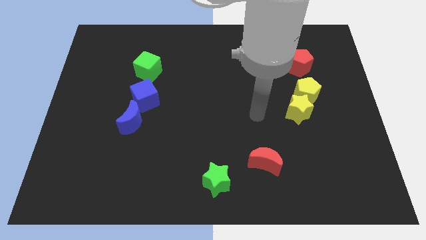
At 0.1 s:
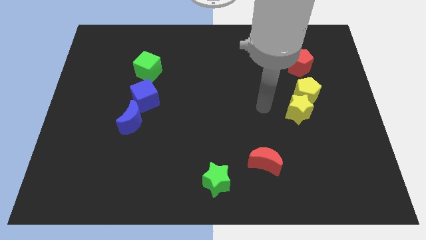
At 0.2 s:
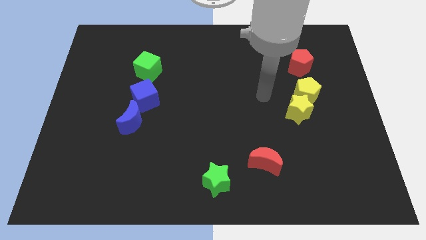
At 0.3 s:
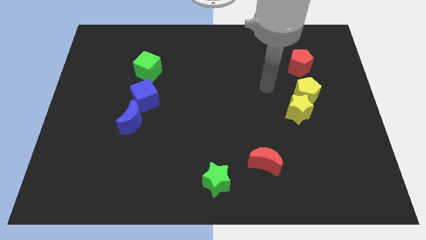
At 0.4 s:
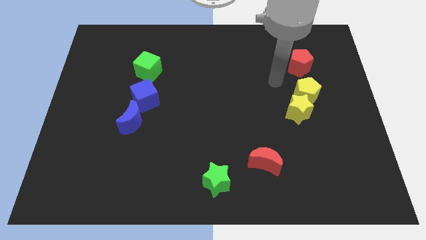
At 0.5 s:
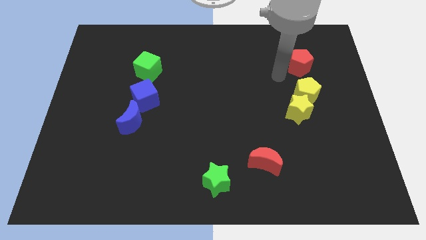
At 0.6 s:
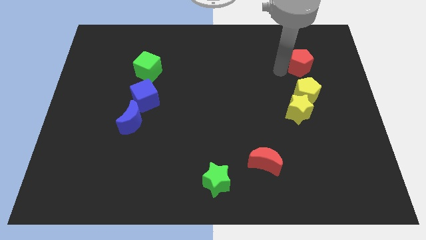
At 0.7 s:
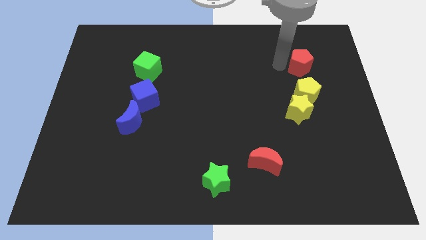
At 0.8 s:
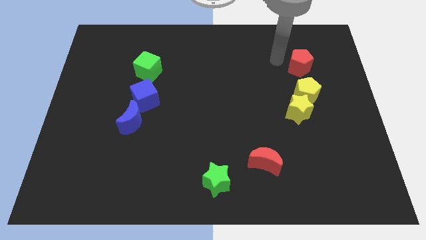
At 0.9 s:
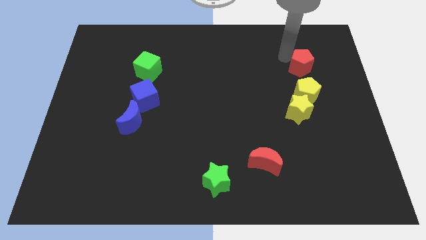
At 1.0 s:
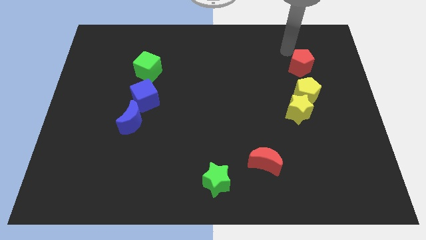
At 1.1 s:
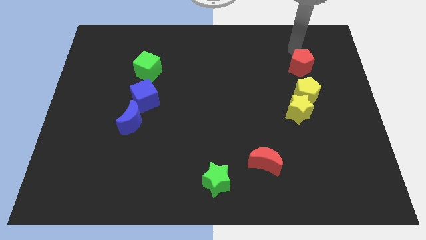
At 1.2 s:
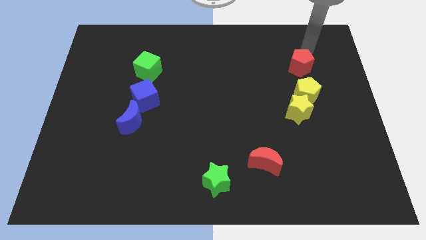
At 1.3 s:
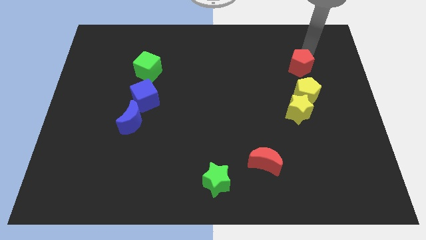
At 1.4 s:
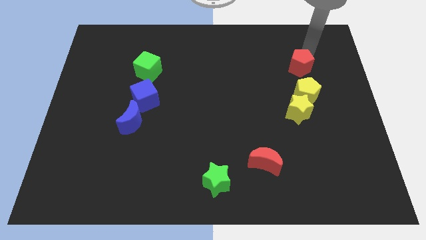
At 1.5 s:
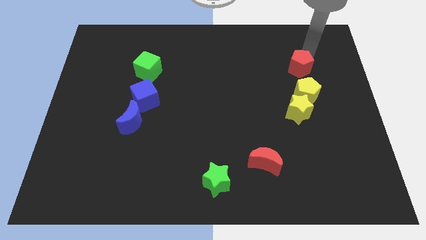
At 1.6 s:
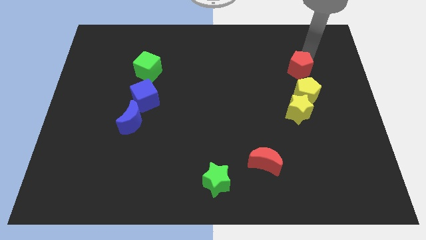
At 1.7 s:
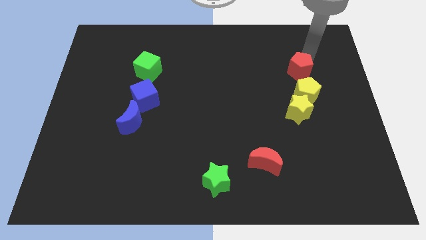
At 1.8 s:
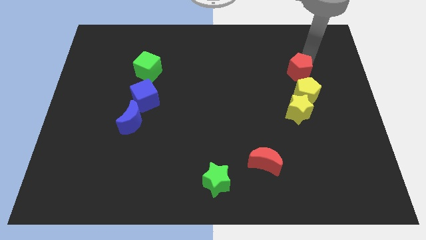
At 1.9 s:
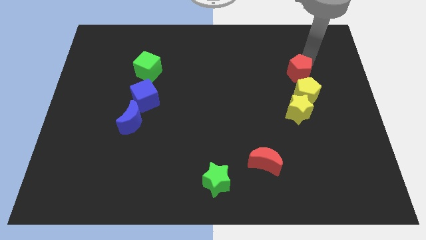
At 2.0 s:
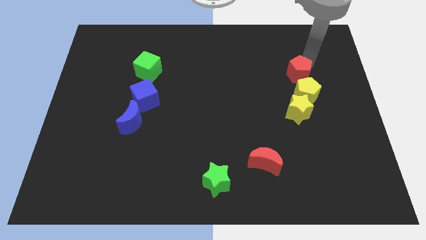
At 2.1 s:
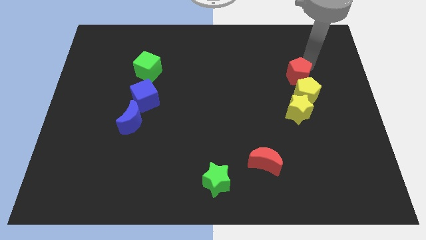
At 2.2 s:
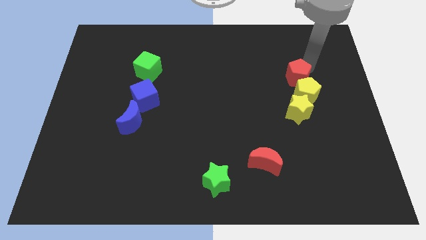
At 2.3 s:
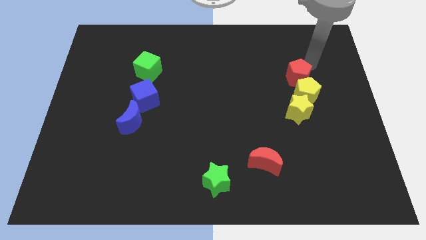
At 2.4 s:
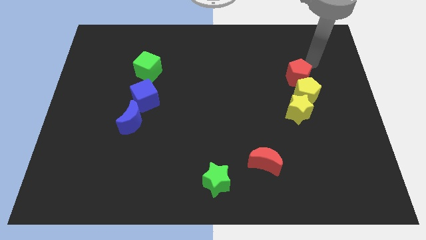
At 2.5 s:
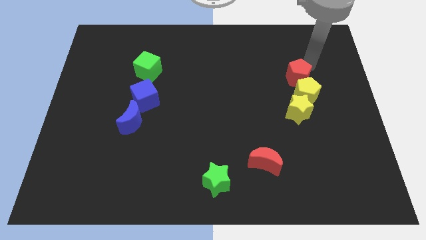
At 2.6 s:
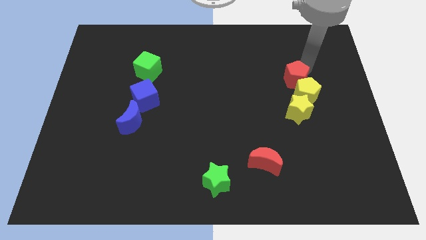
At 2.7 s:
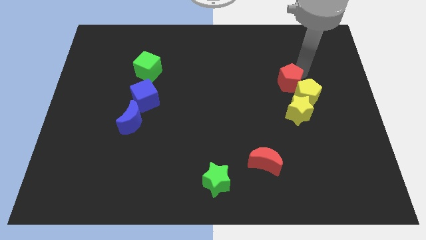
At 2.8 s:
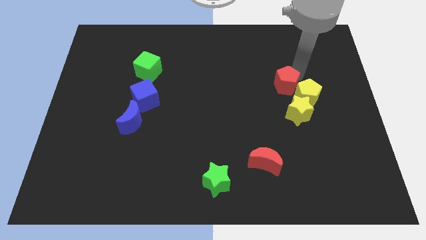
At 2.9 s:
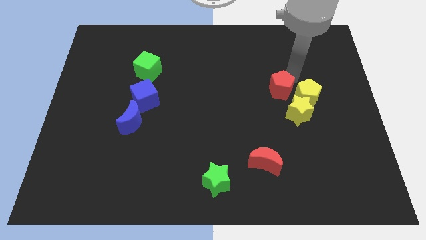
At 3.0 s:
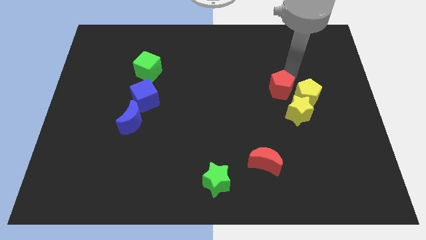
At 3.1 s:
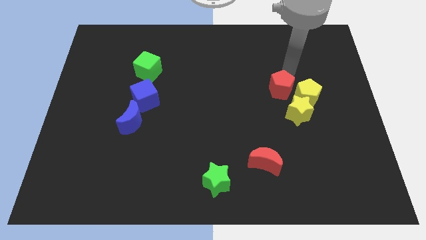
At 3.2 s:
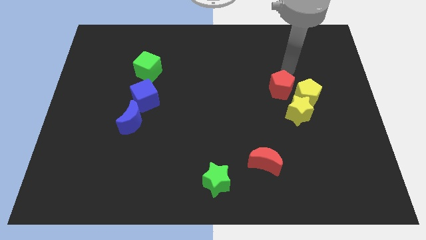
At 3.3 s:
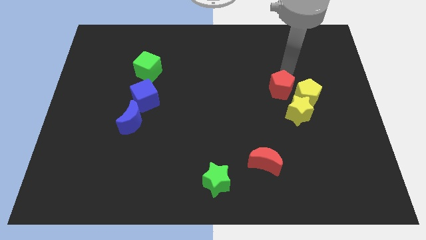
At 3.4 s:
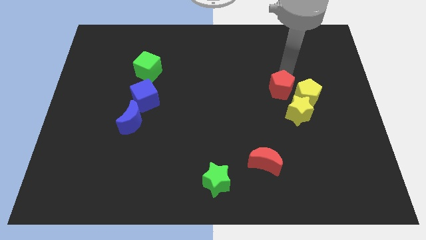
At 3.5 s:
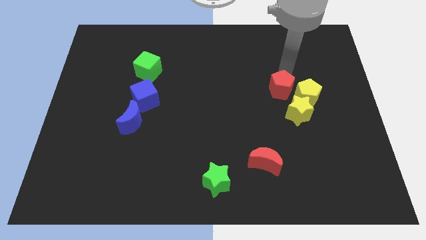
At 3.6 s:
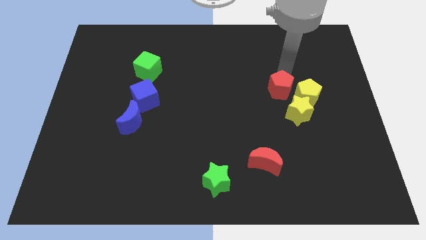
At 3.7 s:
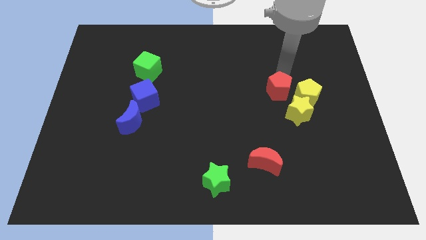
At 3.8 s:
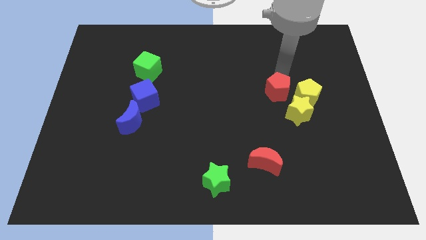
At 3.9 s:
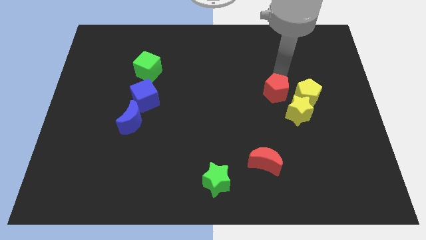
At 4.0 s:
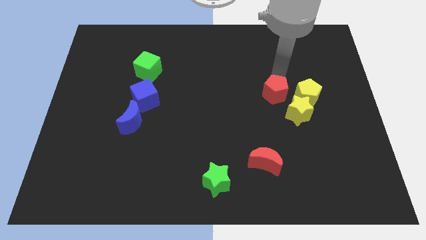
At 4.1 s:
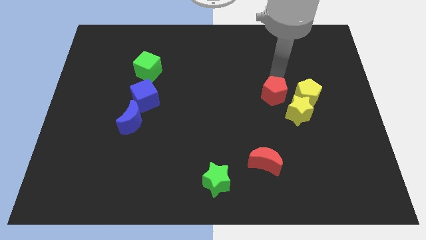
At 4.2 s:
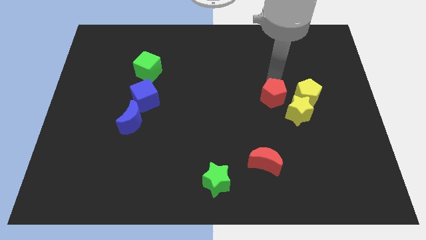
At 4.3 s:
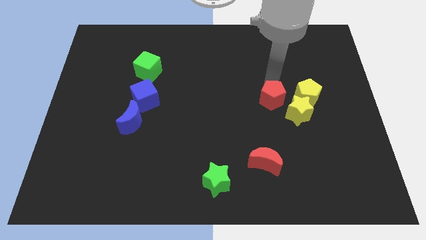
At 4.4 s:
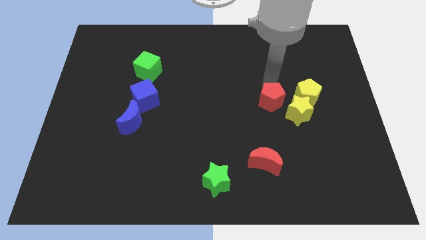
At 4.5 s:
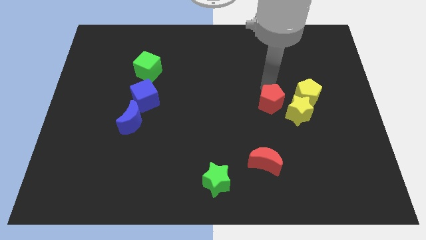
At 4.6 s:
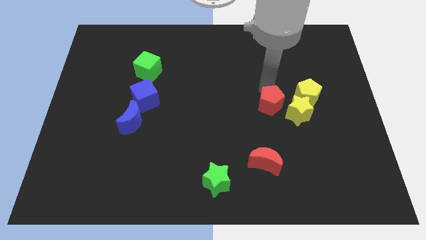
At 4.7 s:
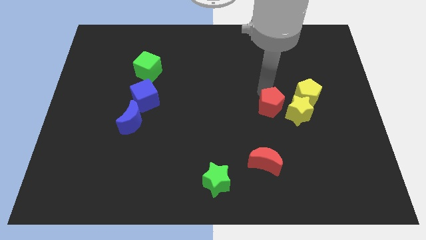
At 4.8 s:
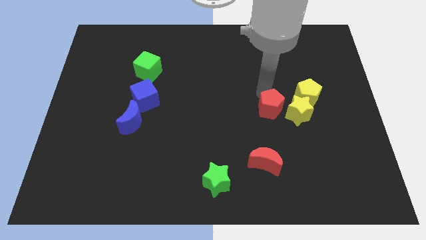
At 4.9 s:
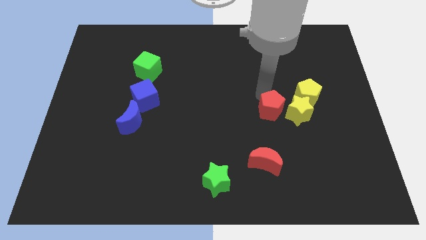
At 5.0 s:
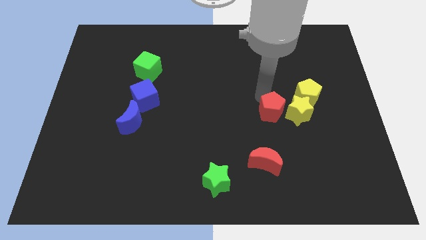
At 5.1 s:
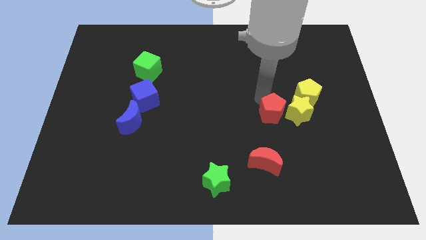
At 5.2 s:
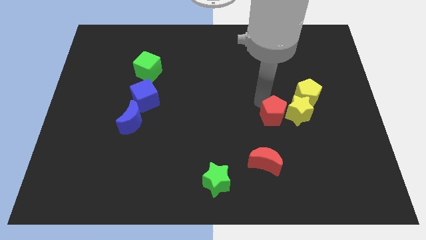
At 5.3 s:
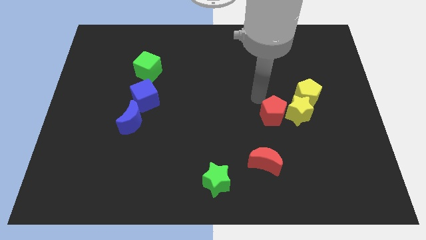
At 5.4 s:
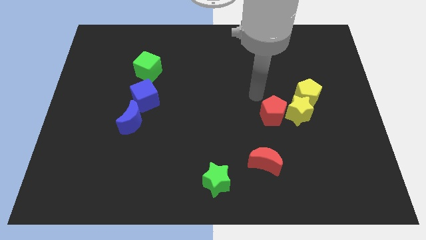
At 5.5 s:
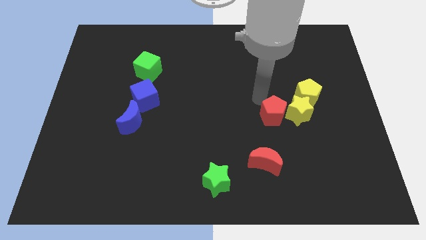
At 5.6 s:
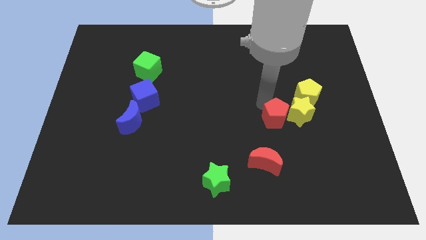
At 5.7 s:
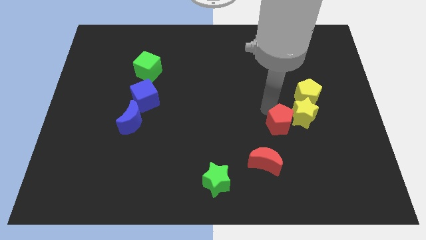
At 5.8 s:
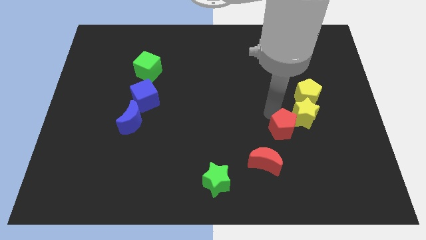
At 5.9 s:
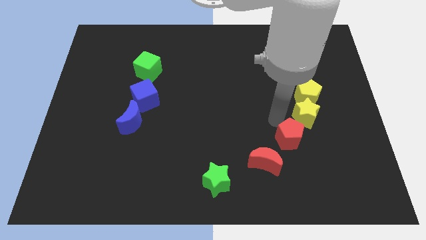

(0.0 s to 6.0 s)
push the red pentagon to the bottom side of the yellow star

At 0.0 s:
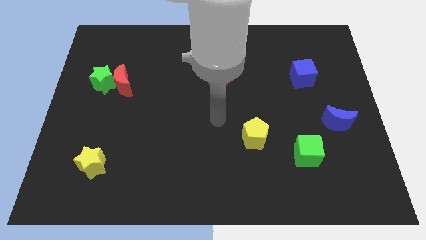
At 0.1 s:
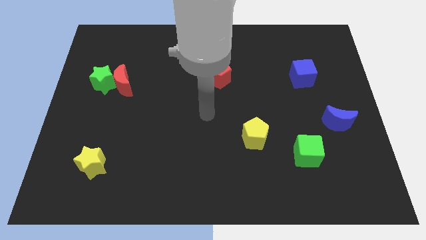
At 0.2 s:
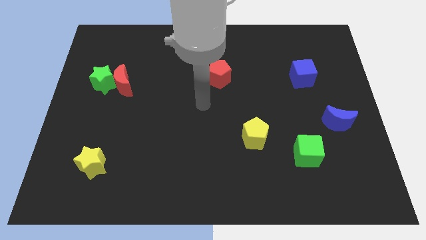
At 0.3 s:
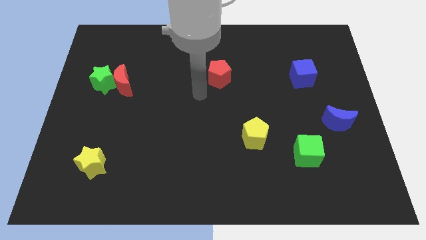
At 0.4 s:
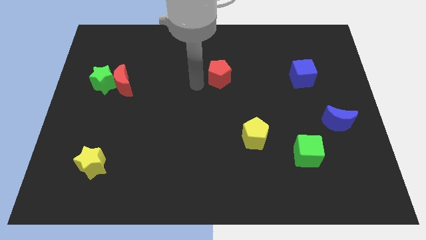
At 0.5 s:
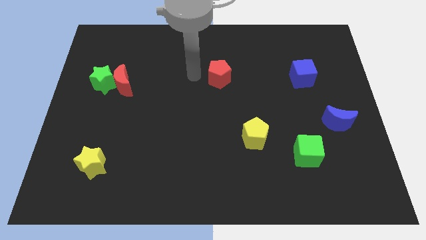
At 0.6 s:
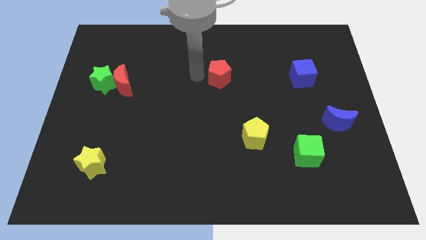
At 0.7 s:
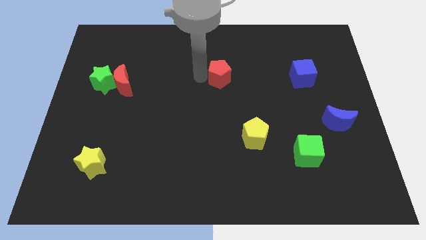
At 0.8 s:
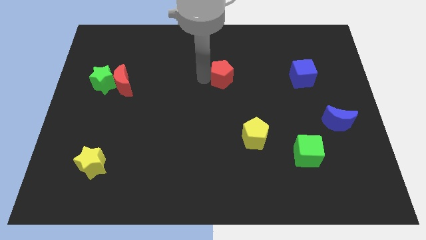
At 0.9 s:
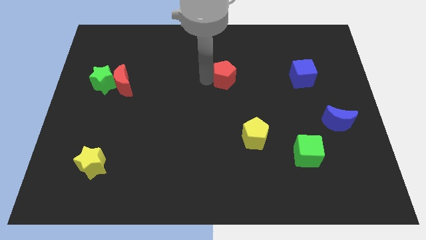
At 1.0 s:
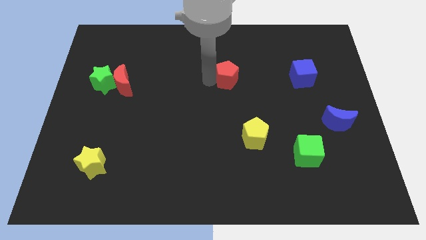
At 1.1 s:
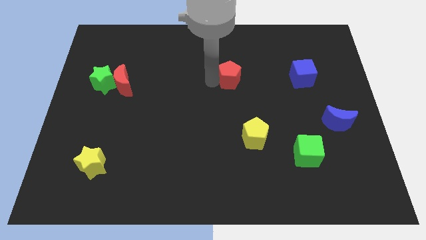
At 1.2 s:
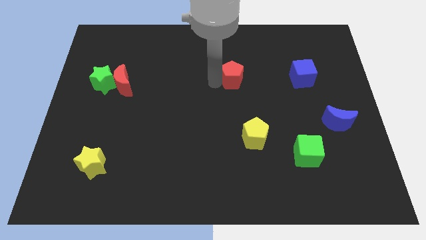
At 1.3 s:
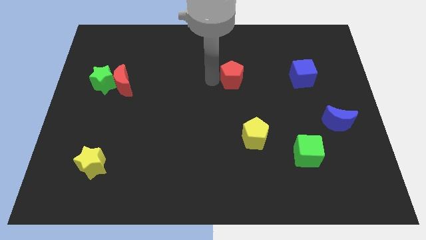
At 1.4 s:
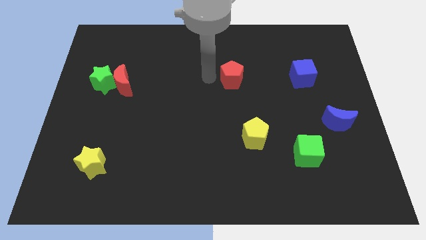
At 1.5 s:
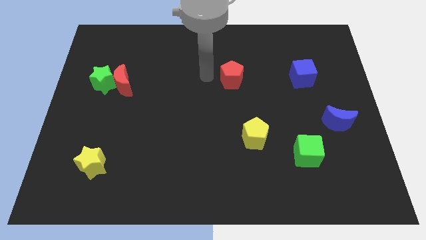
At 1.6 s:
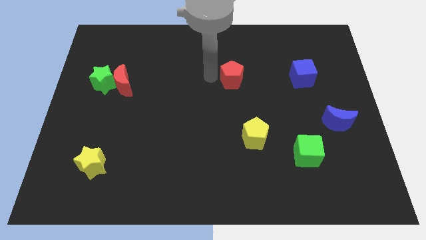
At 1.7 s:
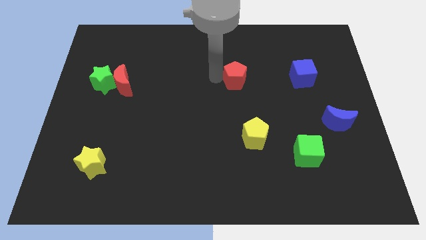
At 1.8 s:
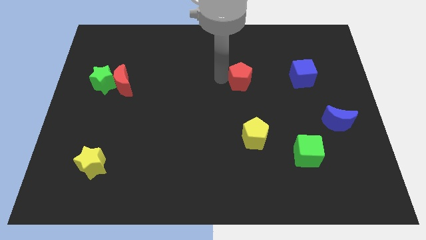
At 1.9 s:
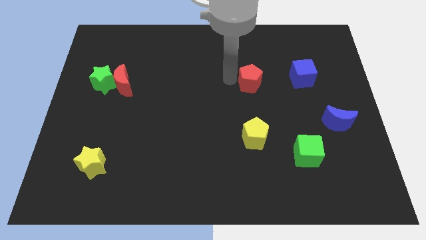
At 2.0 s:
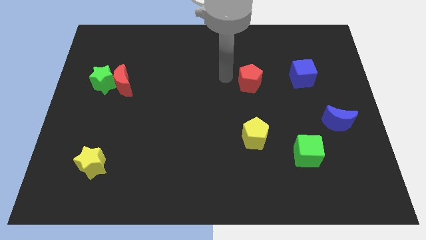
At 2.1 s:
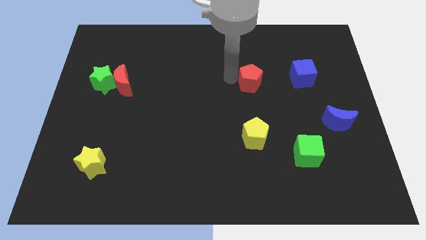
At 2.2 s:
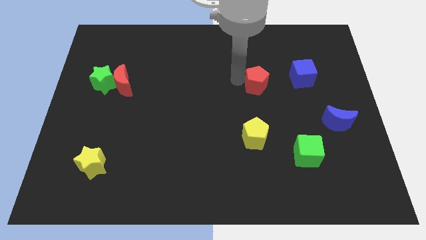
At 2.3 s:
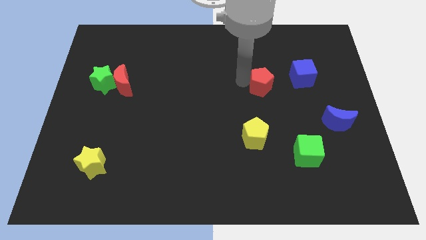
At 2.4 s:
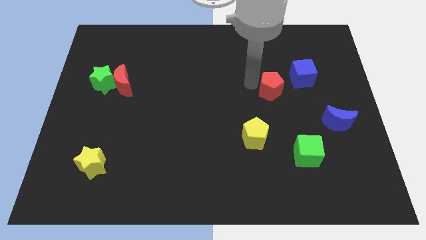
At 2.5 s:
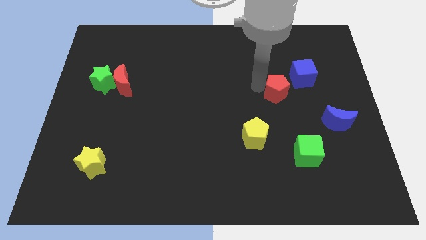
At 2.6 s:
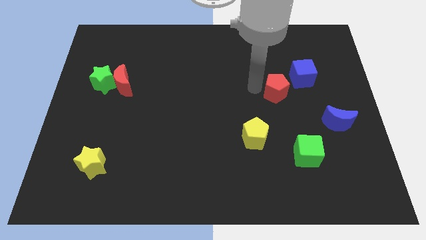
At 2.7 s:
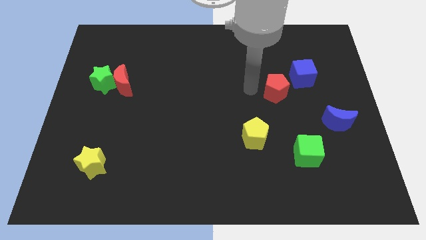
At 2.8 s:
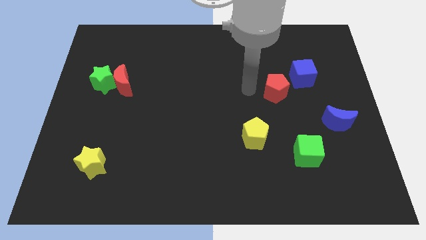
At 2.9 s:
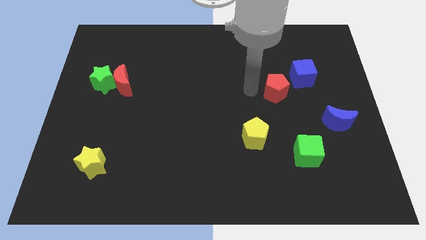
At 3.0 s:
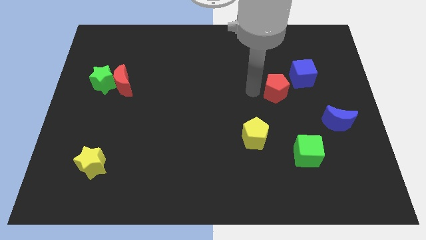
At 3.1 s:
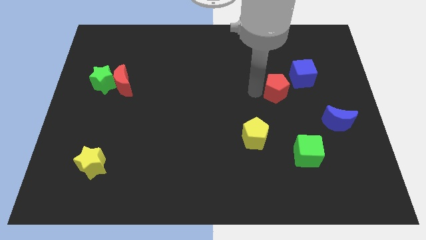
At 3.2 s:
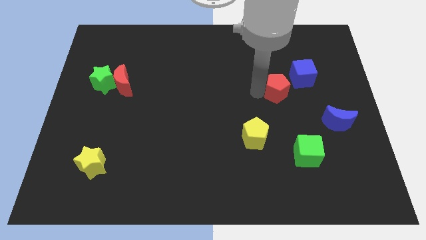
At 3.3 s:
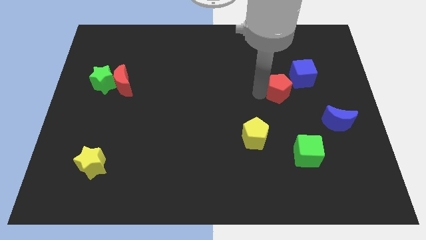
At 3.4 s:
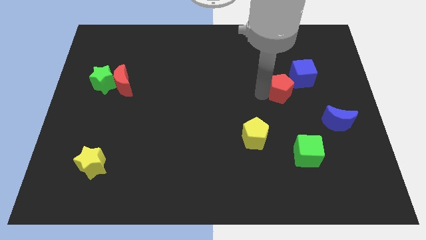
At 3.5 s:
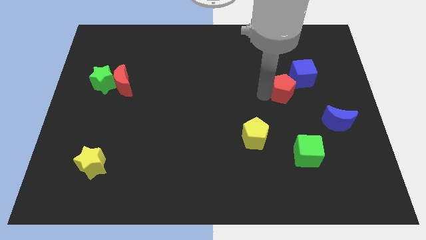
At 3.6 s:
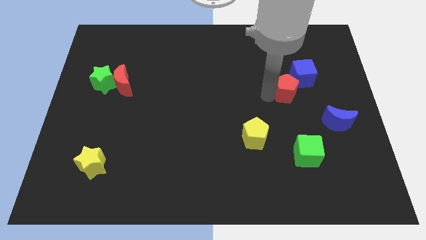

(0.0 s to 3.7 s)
push the red pentagon to the bottom of the blue cube
